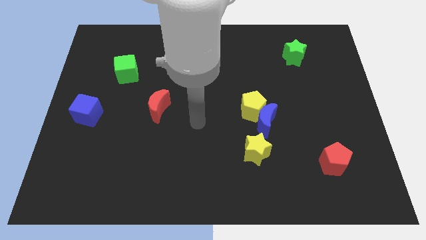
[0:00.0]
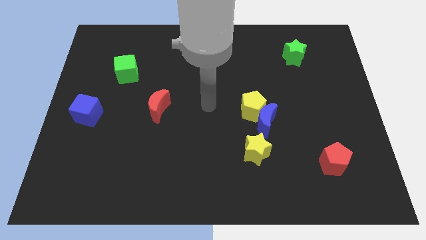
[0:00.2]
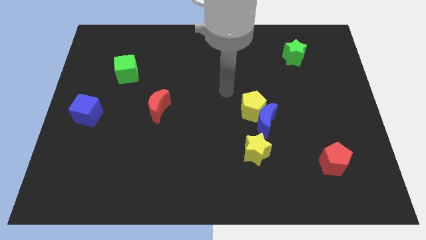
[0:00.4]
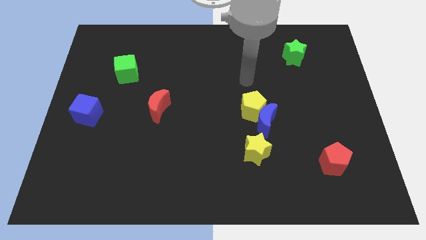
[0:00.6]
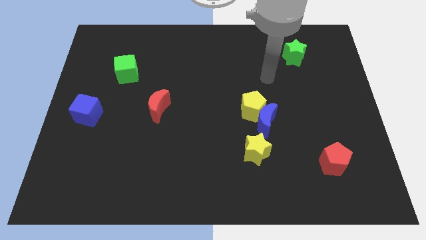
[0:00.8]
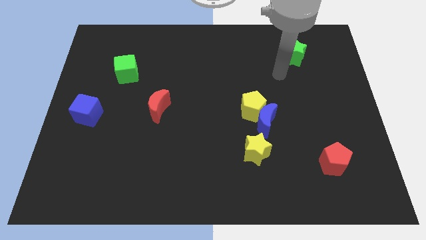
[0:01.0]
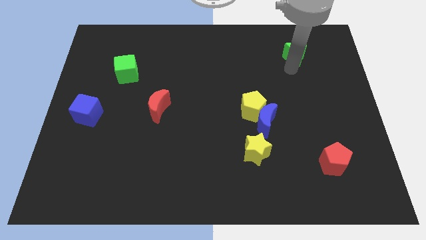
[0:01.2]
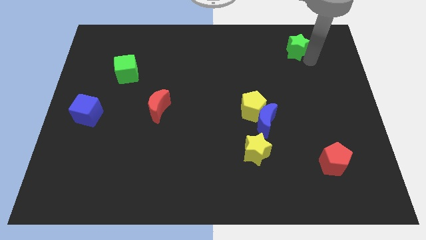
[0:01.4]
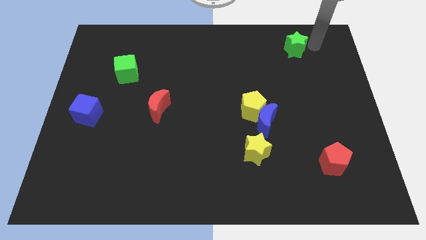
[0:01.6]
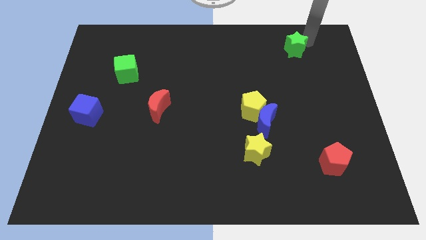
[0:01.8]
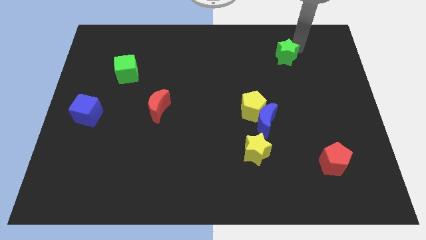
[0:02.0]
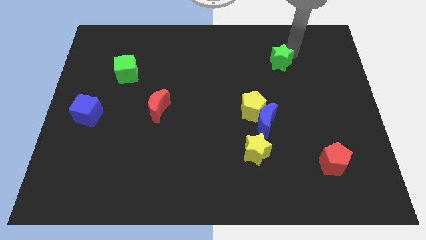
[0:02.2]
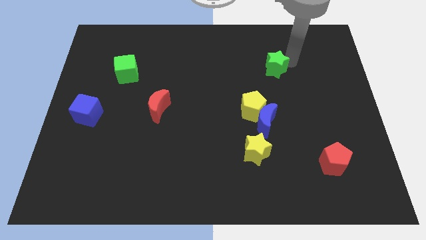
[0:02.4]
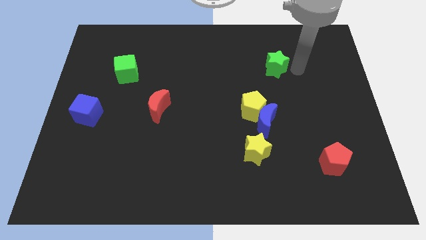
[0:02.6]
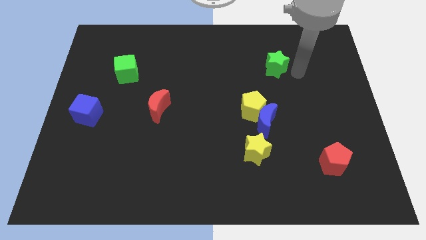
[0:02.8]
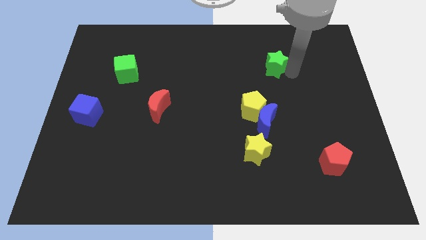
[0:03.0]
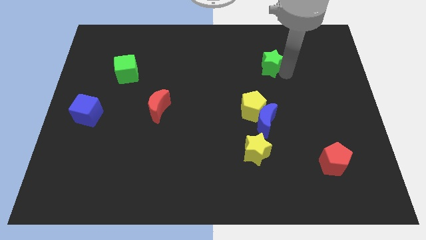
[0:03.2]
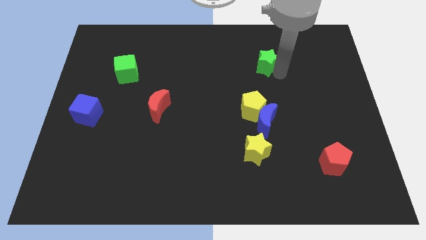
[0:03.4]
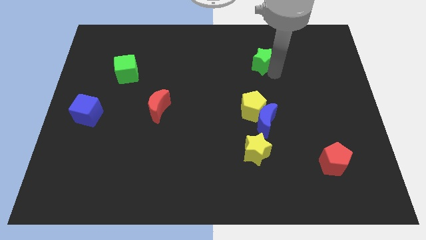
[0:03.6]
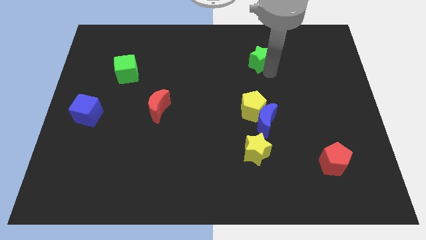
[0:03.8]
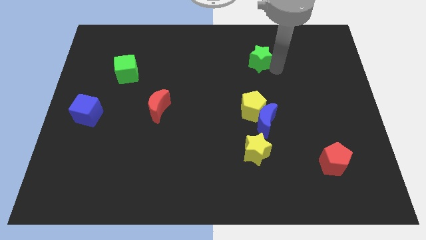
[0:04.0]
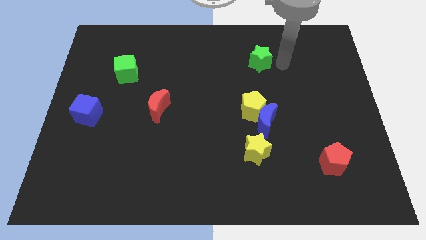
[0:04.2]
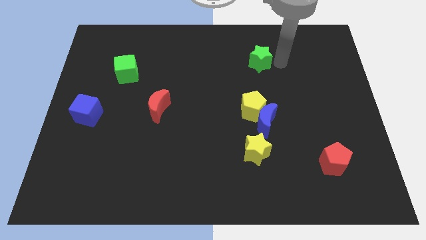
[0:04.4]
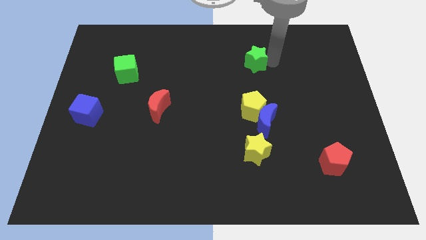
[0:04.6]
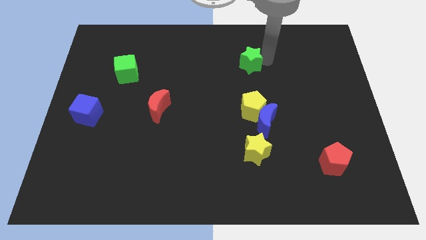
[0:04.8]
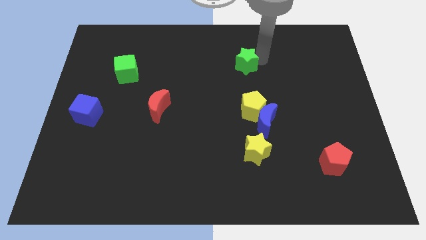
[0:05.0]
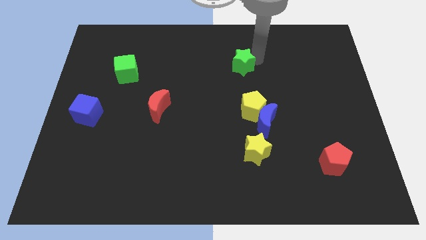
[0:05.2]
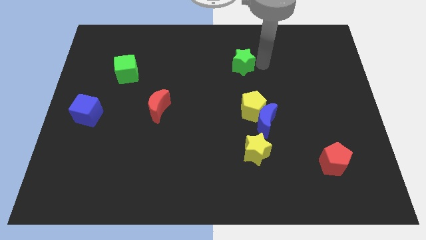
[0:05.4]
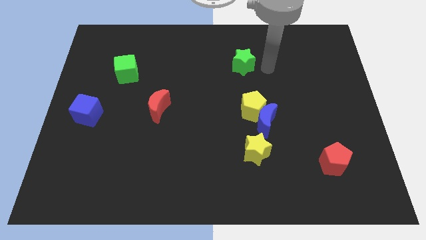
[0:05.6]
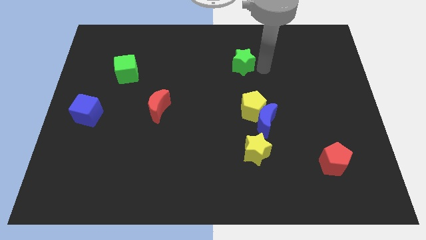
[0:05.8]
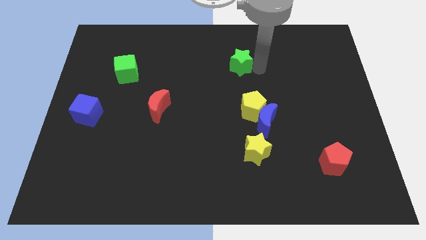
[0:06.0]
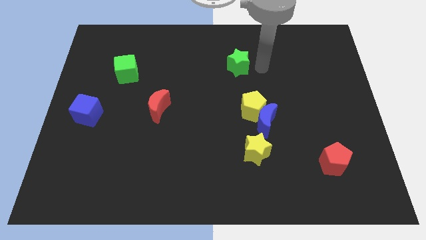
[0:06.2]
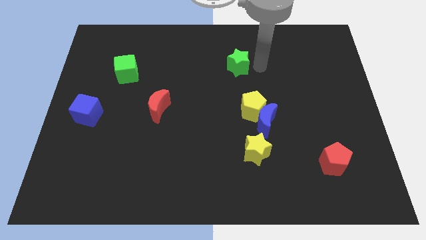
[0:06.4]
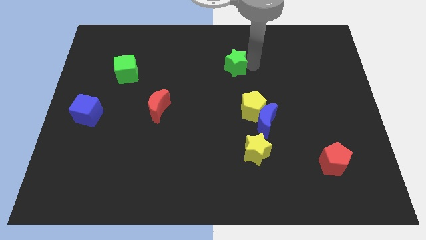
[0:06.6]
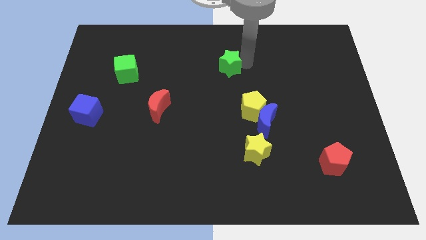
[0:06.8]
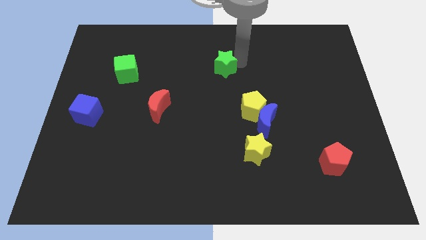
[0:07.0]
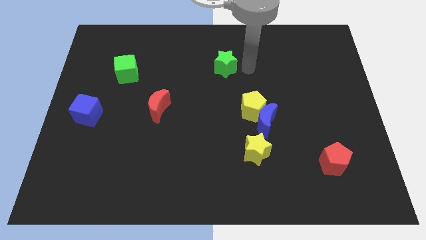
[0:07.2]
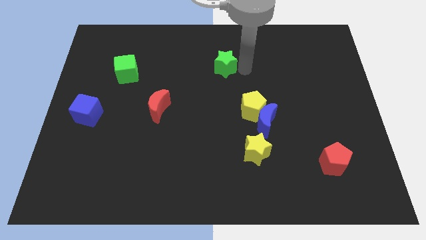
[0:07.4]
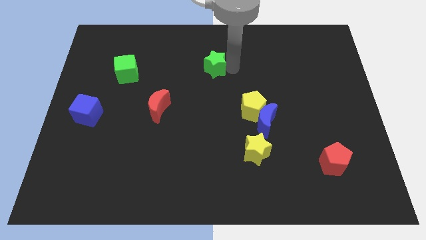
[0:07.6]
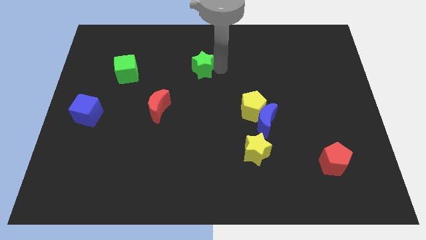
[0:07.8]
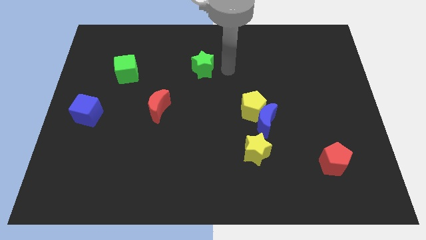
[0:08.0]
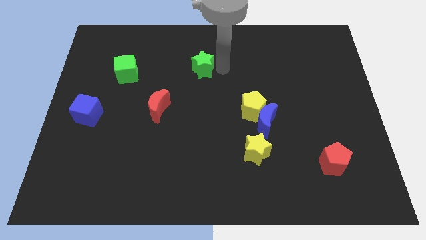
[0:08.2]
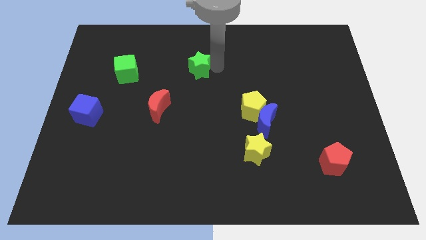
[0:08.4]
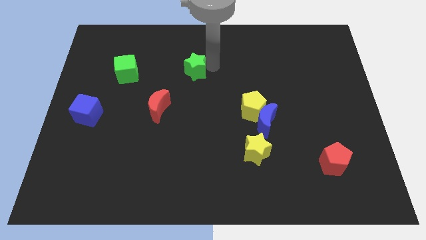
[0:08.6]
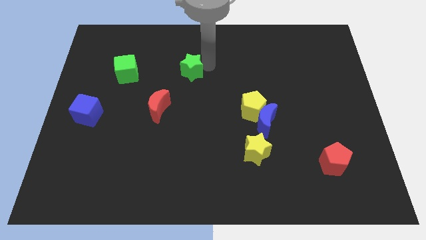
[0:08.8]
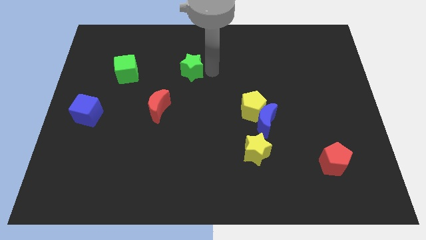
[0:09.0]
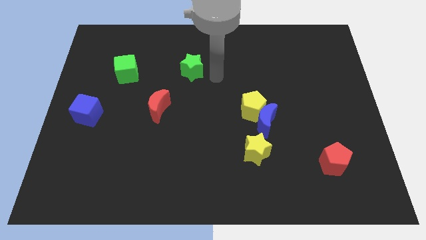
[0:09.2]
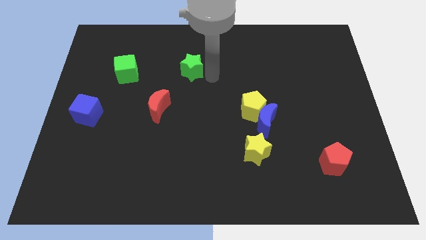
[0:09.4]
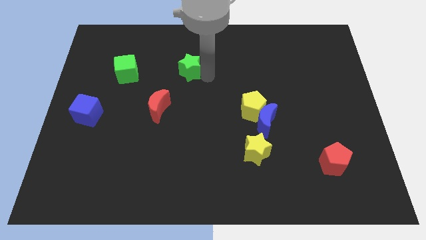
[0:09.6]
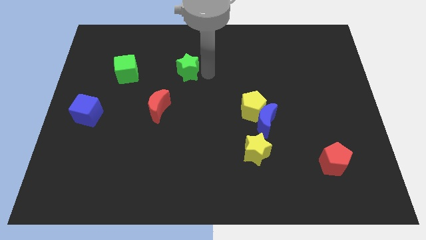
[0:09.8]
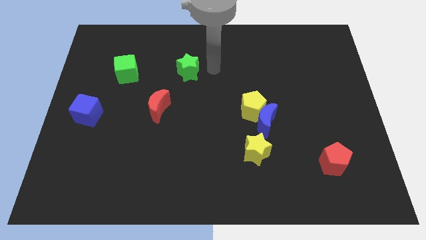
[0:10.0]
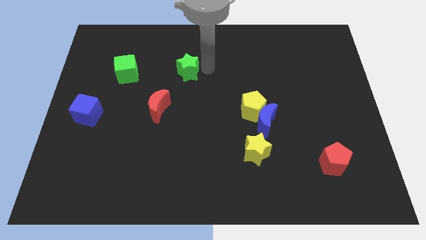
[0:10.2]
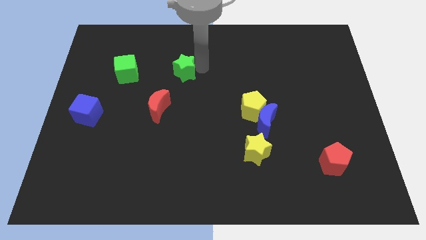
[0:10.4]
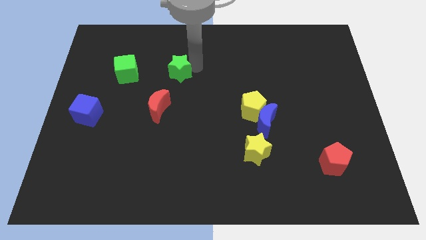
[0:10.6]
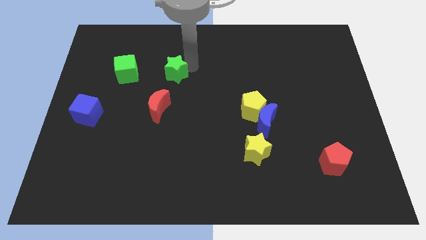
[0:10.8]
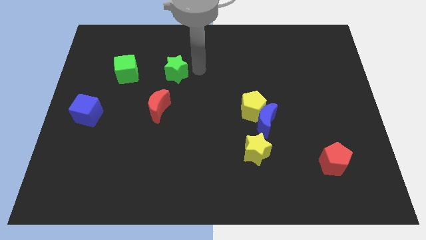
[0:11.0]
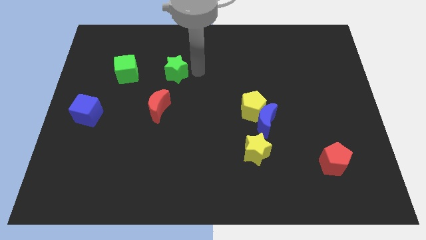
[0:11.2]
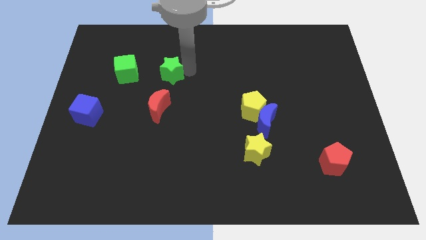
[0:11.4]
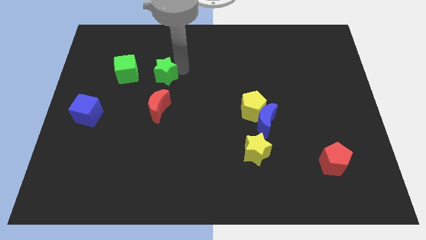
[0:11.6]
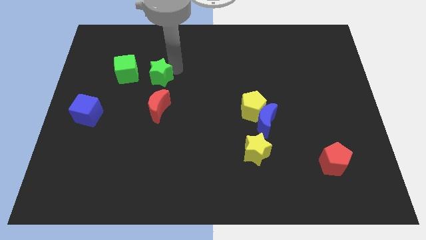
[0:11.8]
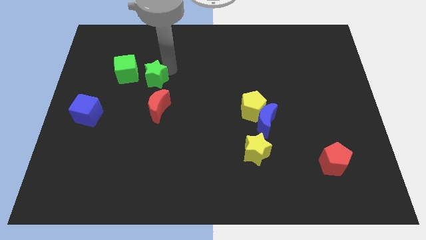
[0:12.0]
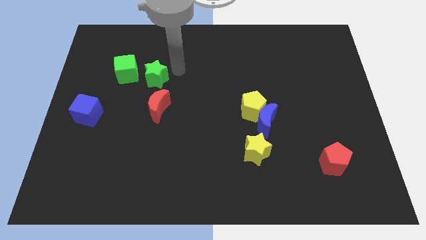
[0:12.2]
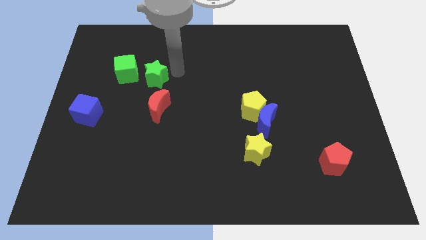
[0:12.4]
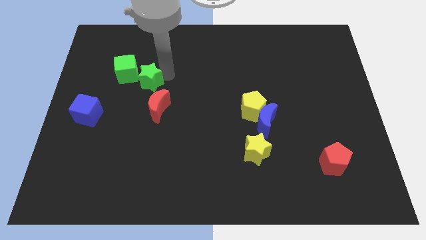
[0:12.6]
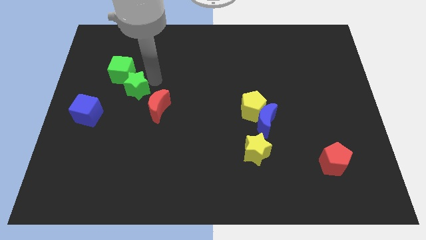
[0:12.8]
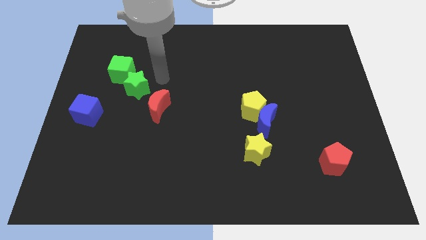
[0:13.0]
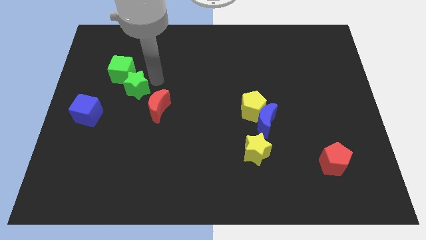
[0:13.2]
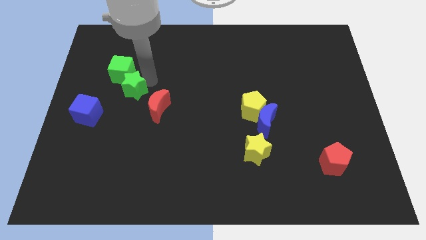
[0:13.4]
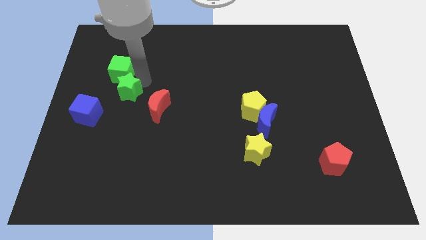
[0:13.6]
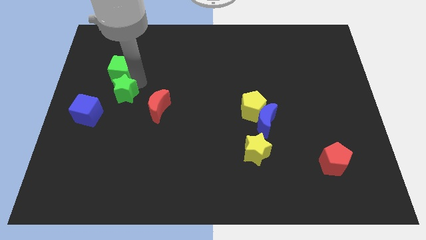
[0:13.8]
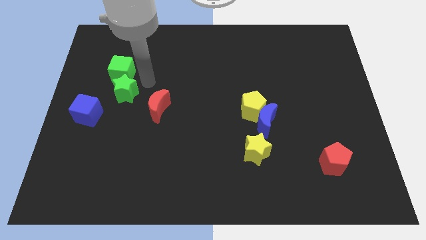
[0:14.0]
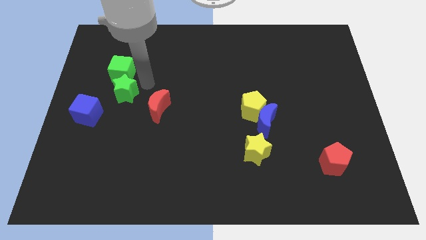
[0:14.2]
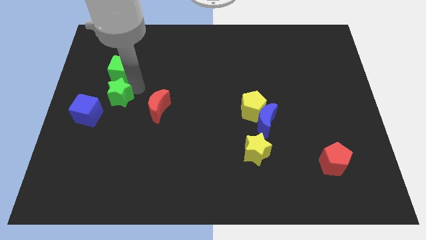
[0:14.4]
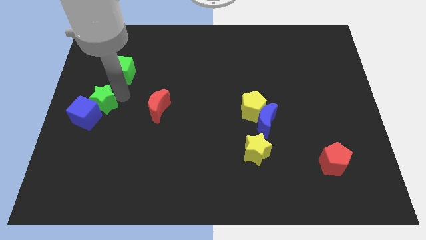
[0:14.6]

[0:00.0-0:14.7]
slide the green star next to the blue cube
